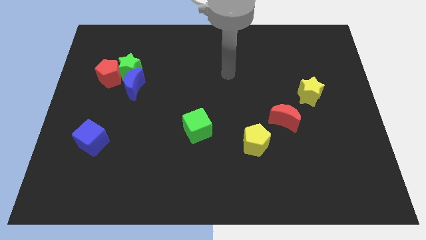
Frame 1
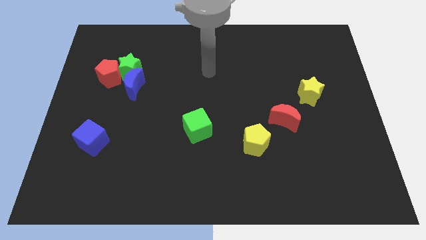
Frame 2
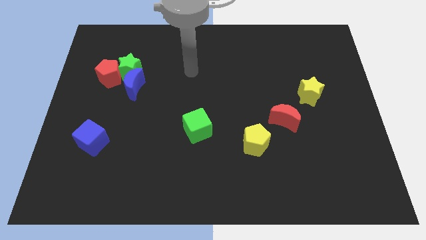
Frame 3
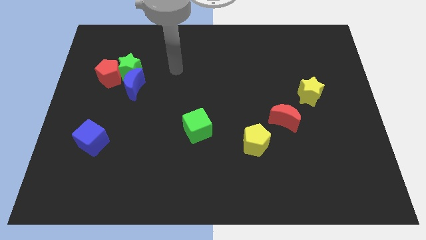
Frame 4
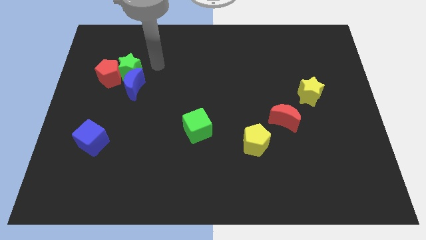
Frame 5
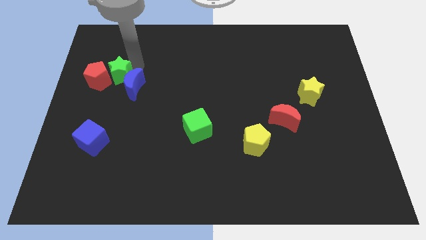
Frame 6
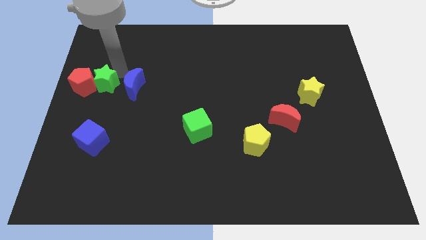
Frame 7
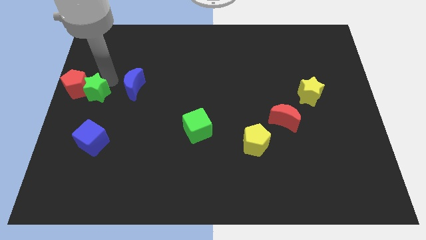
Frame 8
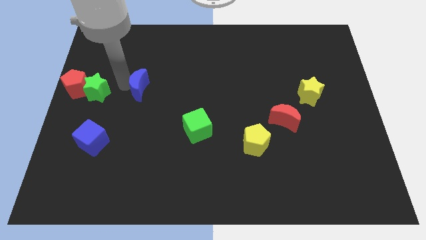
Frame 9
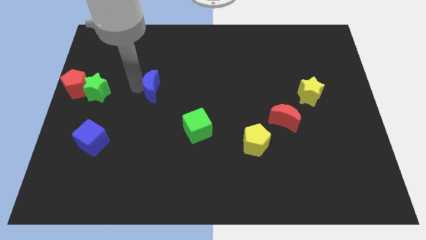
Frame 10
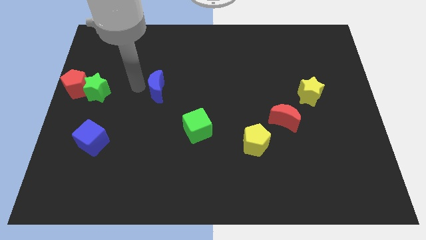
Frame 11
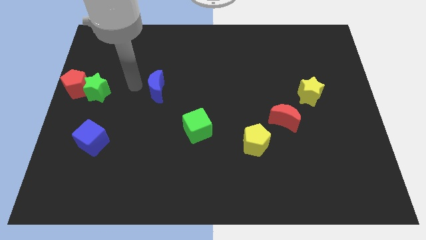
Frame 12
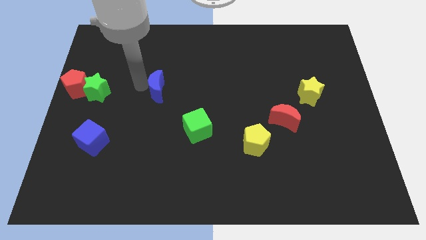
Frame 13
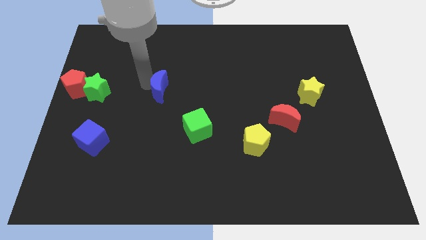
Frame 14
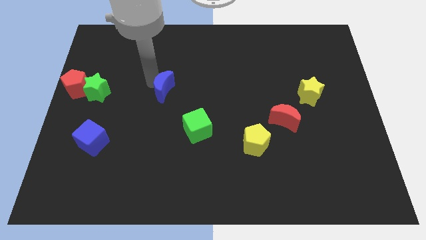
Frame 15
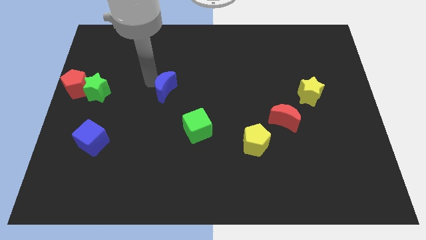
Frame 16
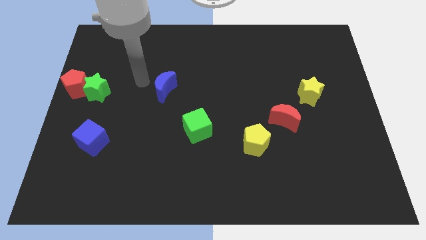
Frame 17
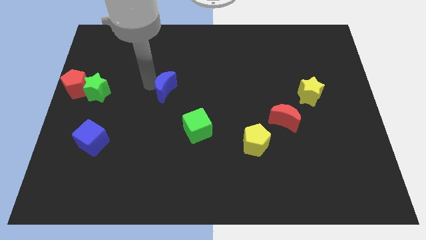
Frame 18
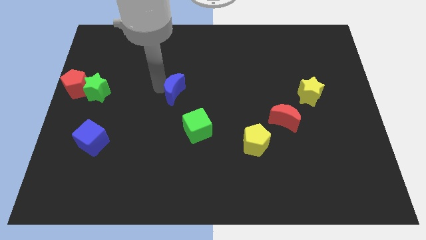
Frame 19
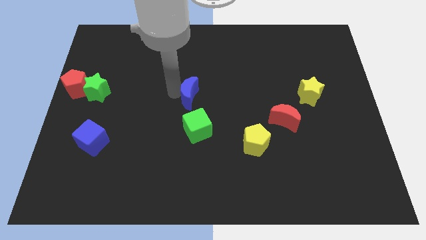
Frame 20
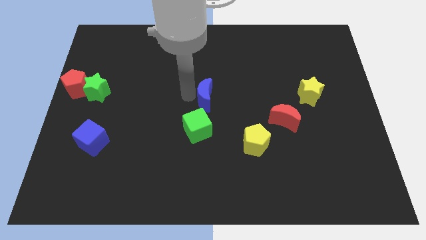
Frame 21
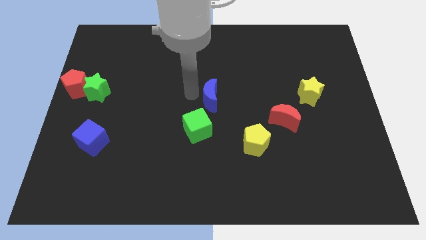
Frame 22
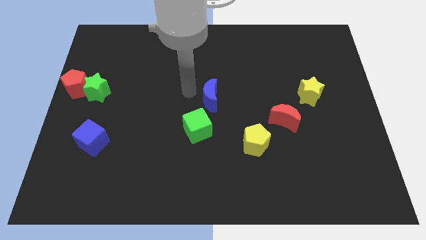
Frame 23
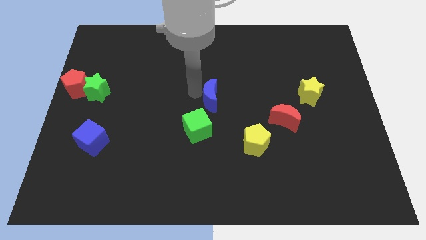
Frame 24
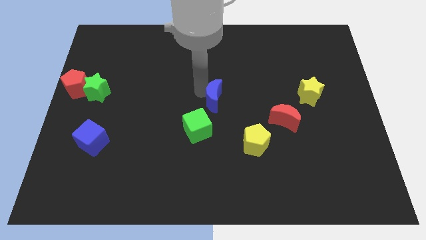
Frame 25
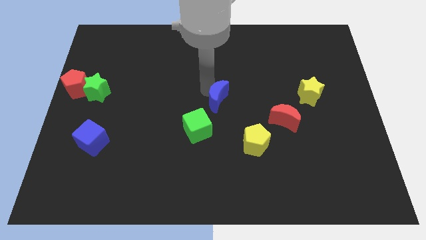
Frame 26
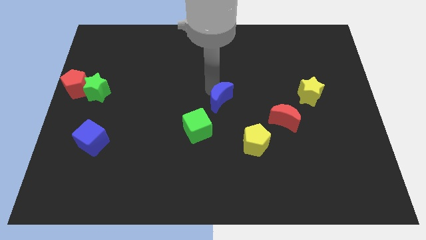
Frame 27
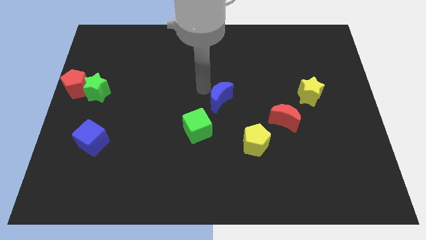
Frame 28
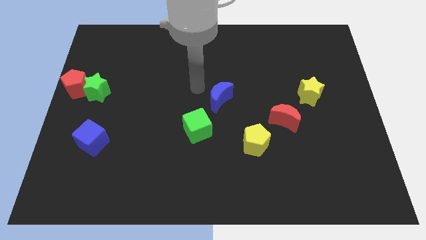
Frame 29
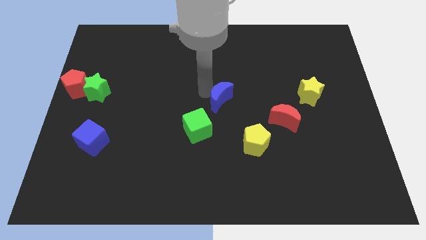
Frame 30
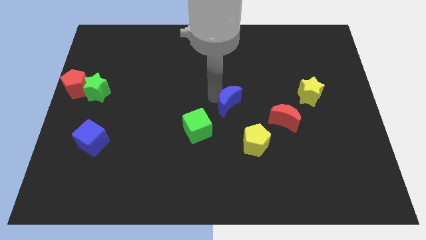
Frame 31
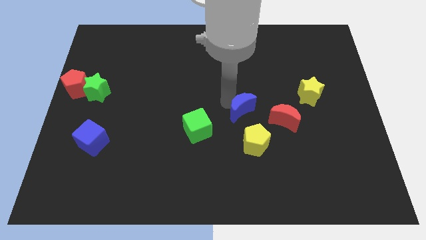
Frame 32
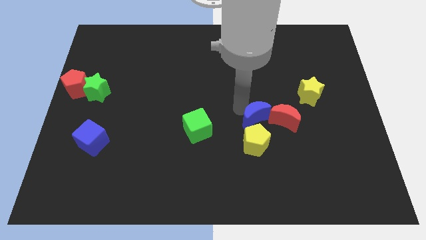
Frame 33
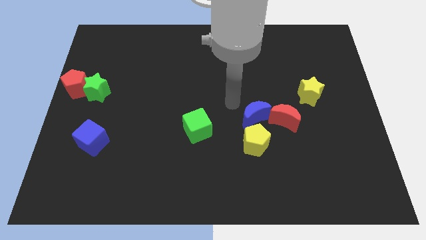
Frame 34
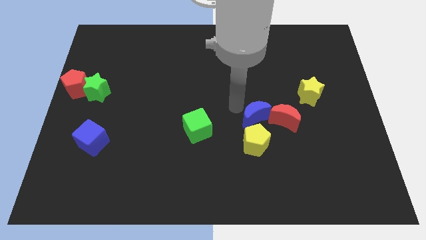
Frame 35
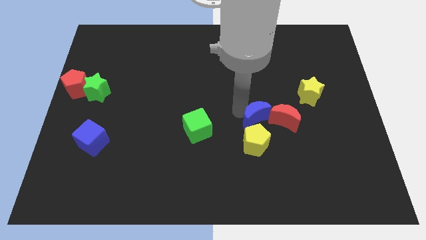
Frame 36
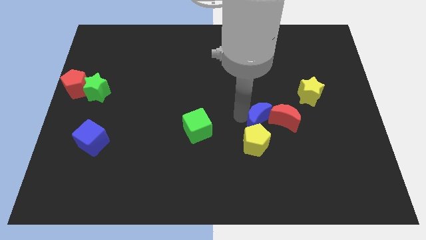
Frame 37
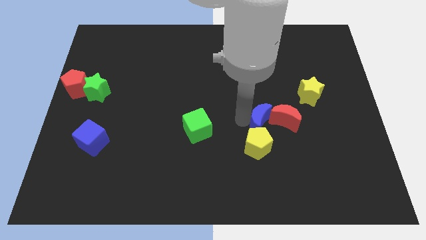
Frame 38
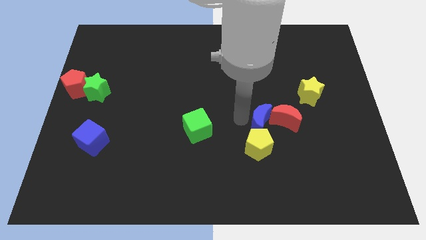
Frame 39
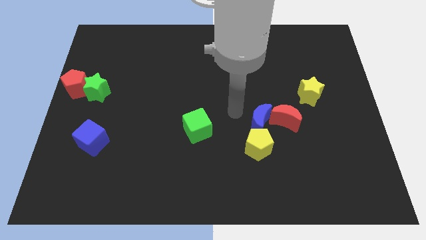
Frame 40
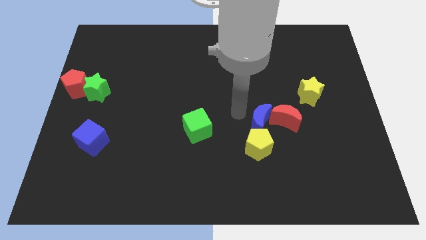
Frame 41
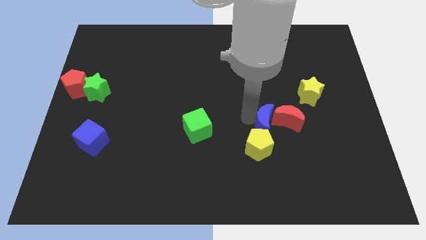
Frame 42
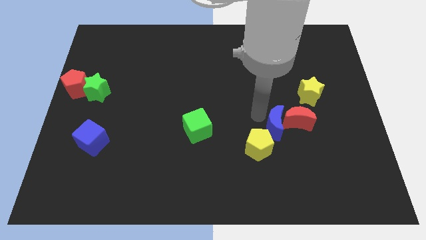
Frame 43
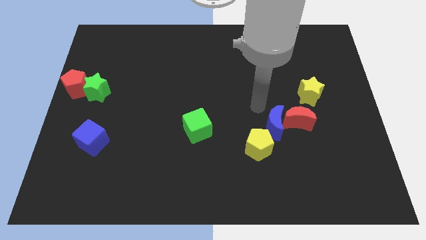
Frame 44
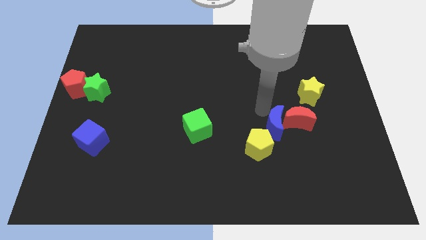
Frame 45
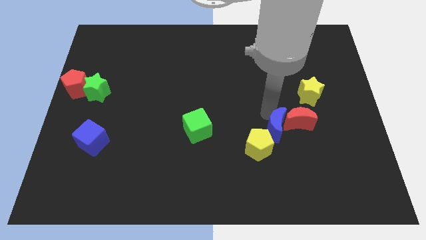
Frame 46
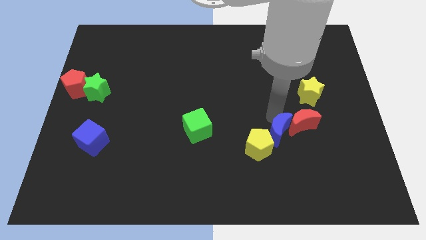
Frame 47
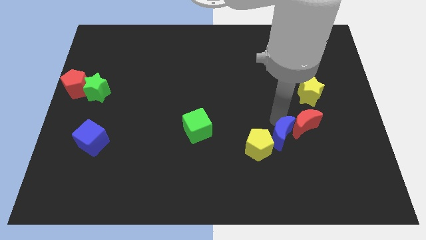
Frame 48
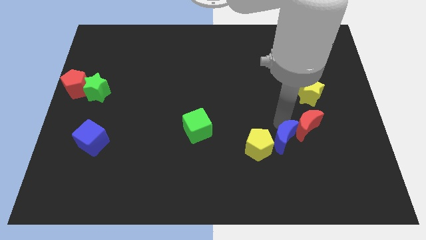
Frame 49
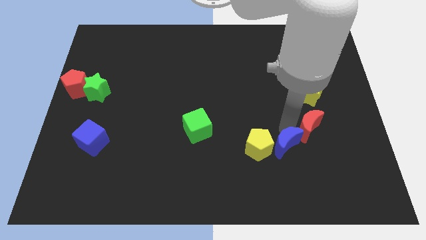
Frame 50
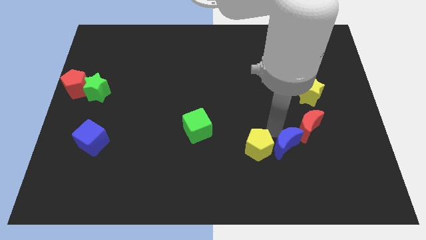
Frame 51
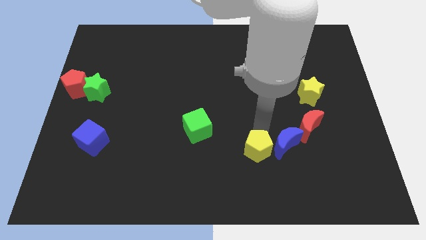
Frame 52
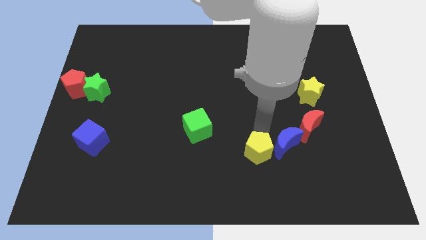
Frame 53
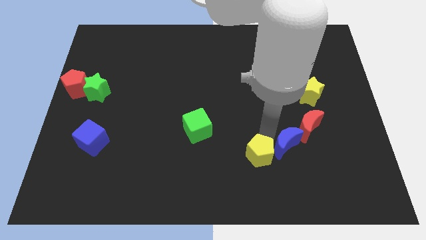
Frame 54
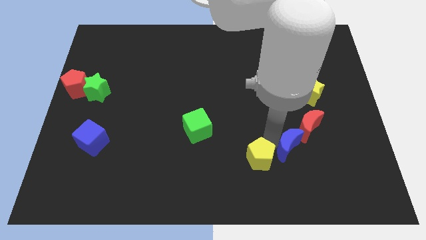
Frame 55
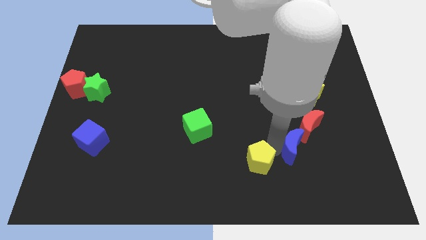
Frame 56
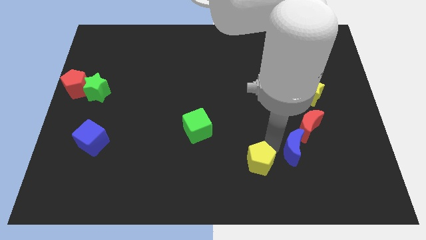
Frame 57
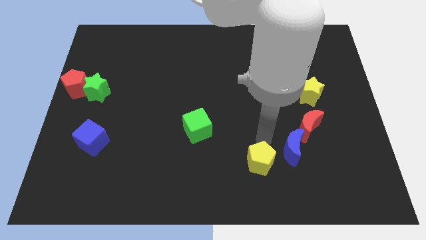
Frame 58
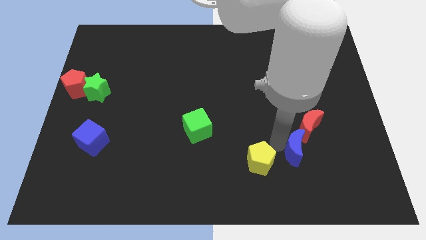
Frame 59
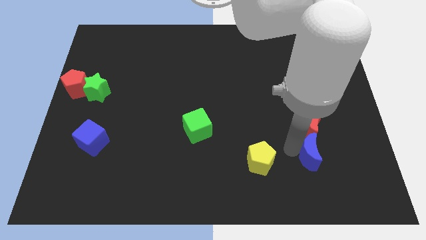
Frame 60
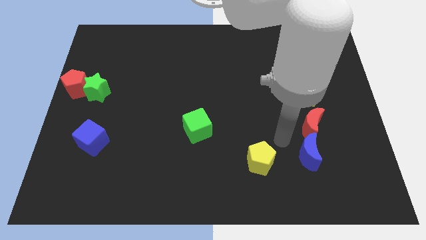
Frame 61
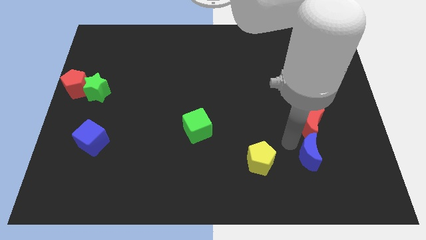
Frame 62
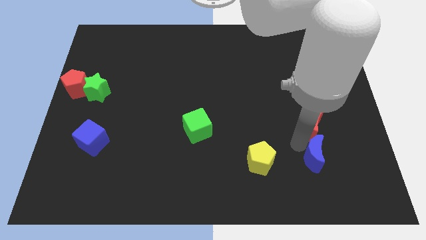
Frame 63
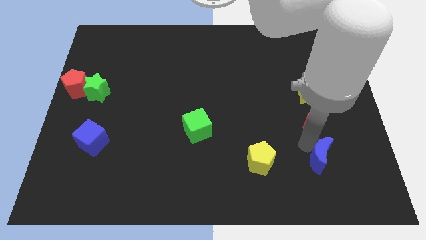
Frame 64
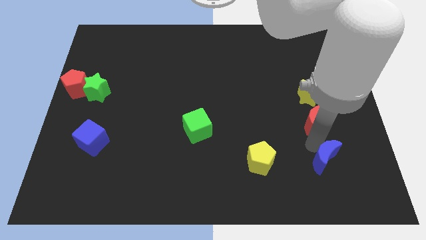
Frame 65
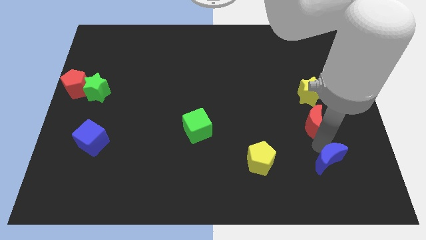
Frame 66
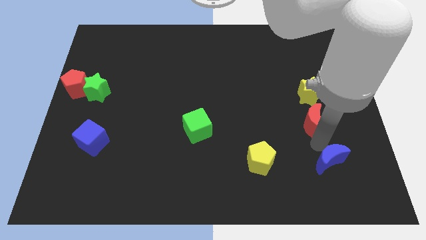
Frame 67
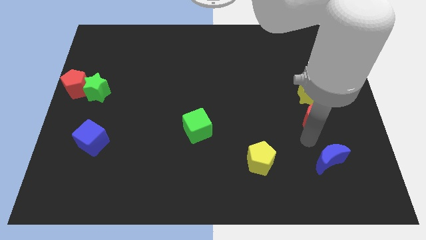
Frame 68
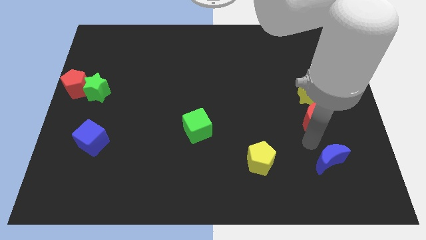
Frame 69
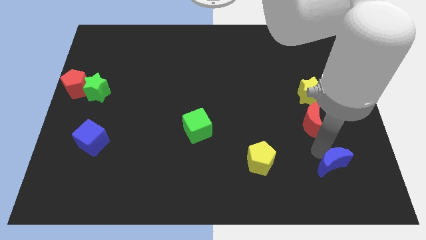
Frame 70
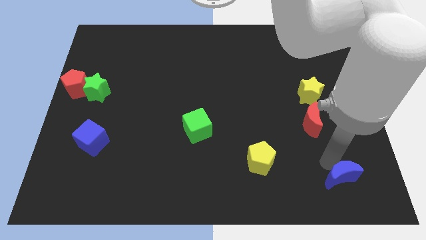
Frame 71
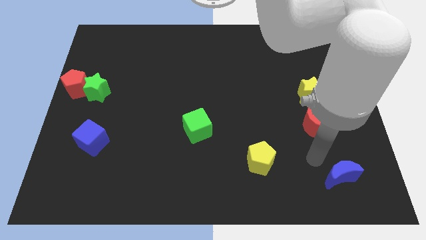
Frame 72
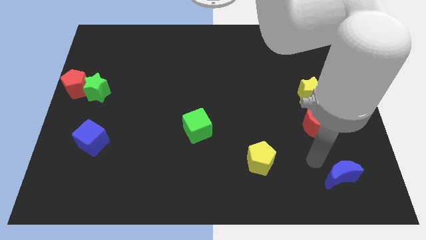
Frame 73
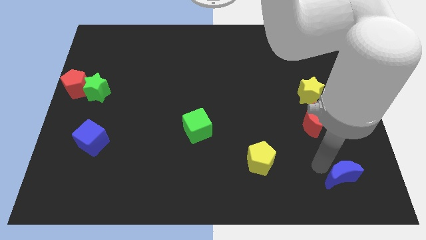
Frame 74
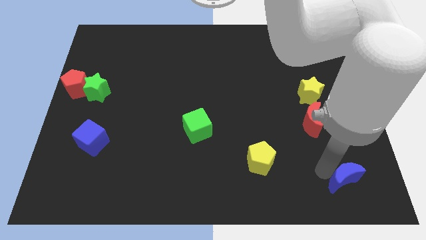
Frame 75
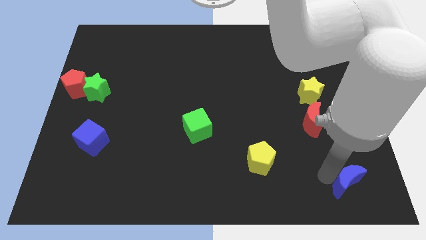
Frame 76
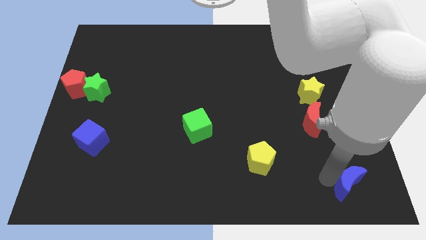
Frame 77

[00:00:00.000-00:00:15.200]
move the blue moon to the bottom right of the board

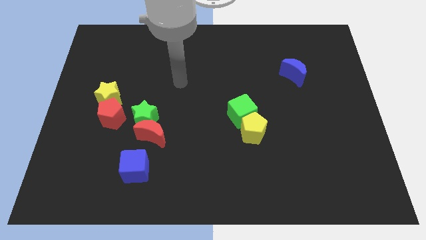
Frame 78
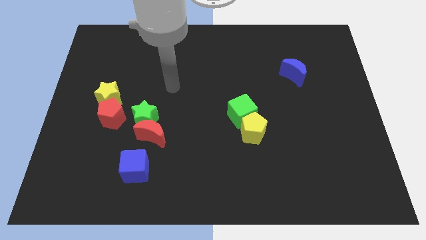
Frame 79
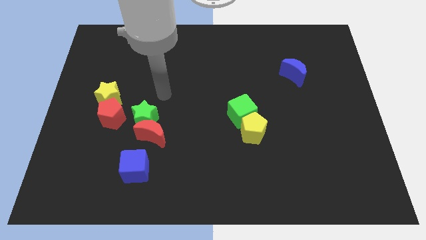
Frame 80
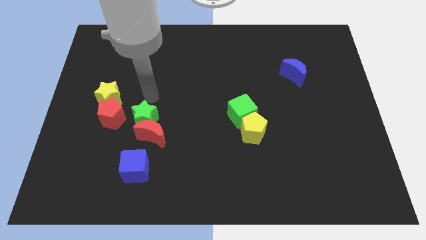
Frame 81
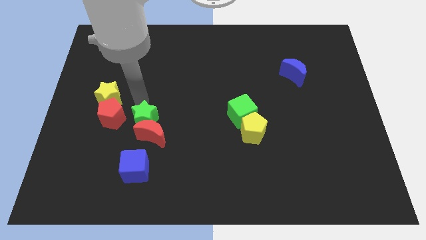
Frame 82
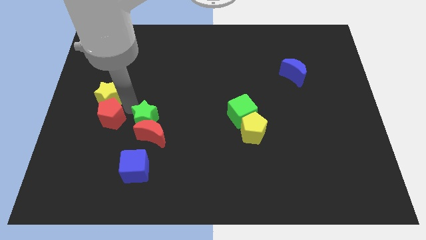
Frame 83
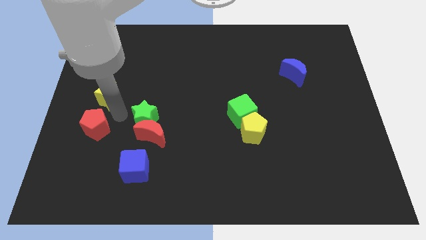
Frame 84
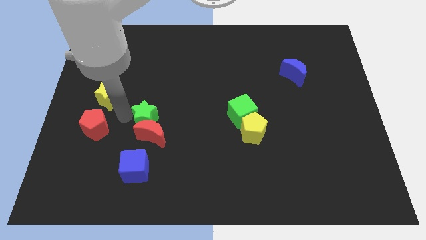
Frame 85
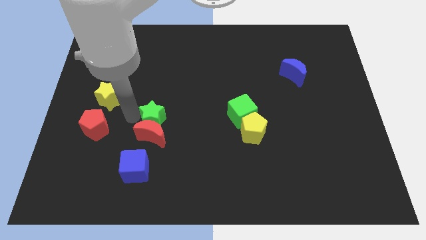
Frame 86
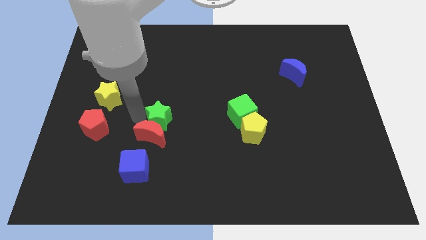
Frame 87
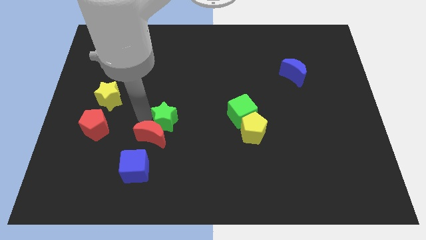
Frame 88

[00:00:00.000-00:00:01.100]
slide the green star to the center of the board
